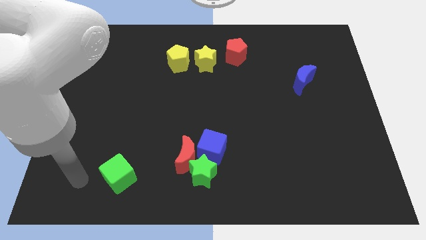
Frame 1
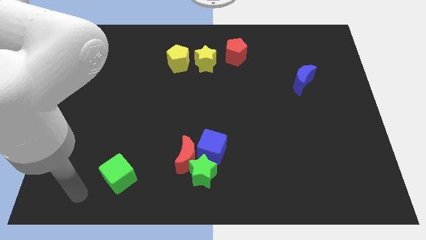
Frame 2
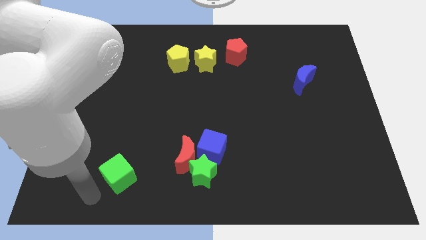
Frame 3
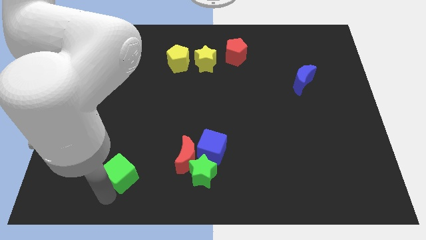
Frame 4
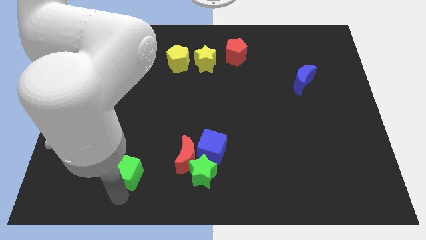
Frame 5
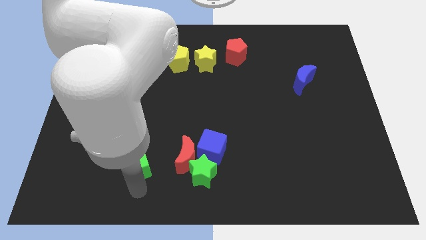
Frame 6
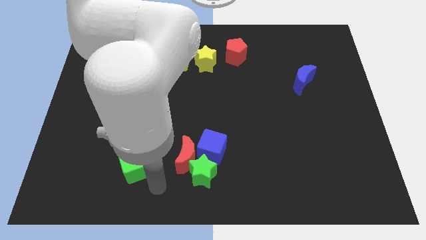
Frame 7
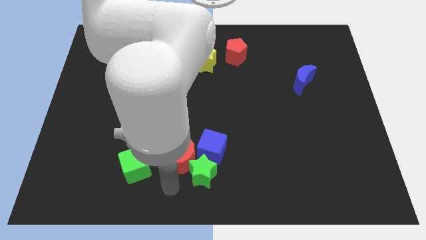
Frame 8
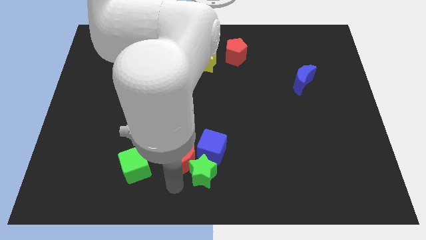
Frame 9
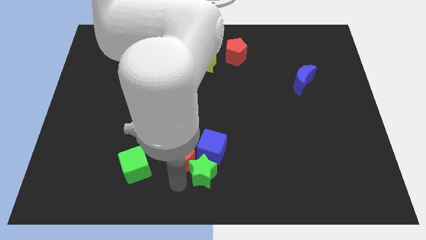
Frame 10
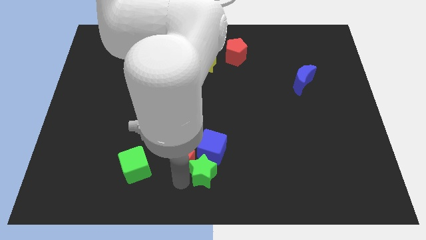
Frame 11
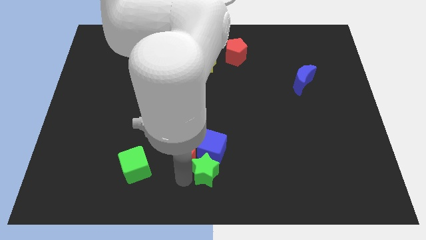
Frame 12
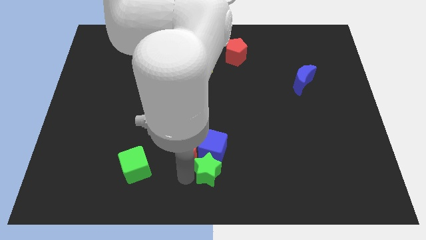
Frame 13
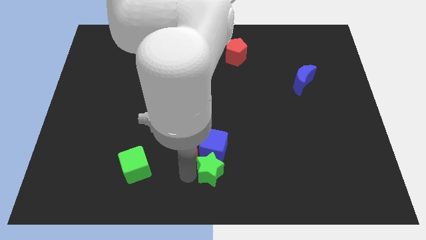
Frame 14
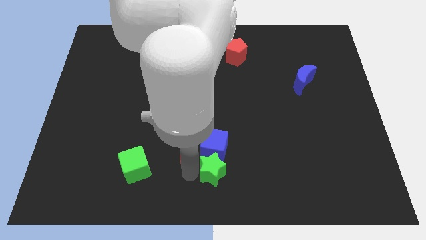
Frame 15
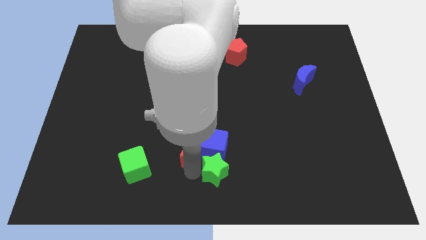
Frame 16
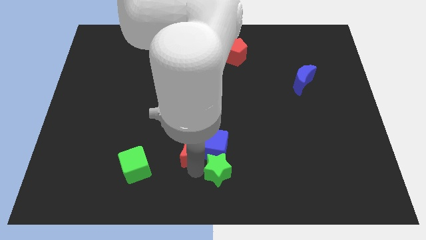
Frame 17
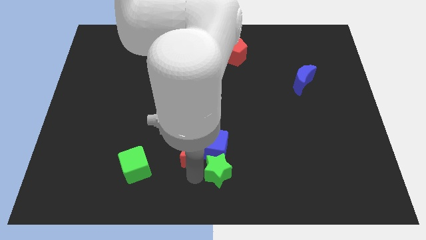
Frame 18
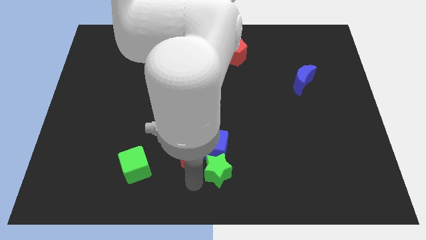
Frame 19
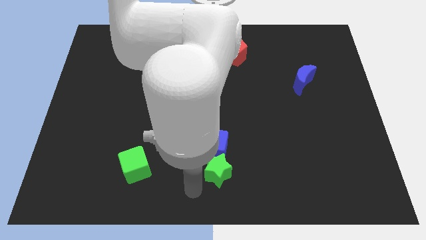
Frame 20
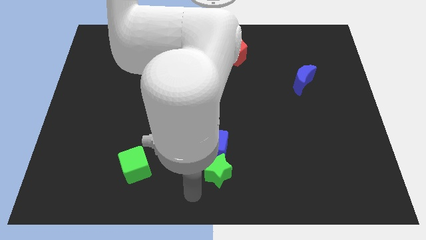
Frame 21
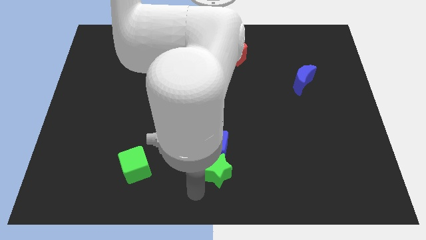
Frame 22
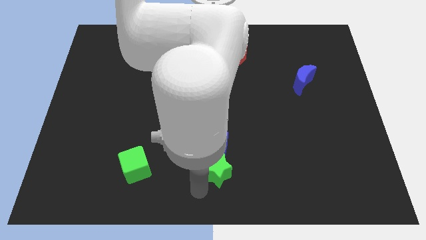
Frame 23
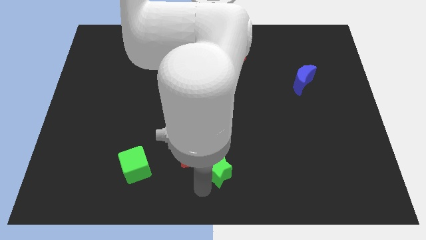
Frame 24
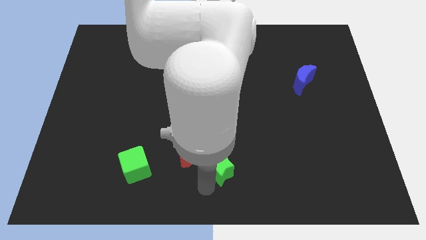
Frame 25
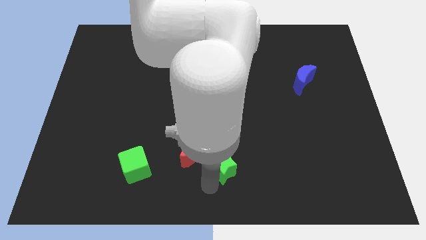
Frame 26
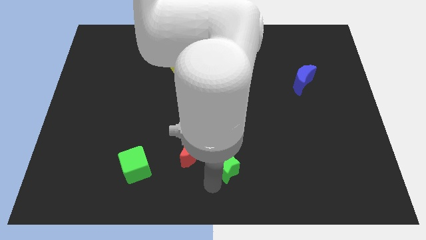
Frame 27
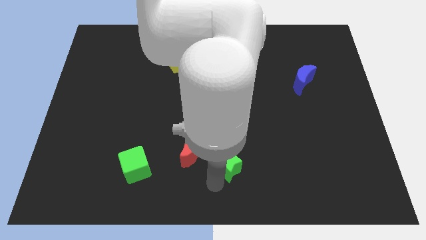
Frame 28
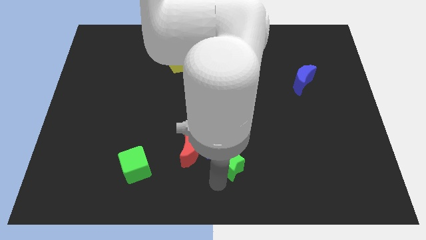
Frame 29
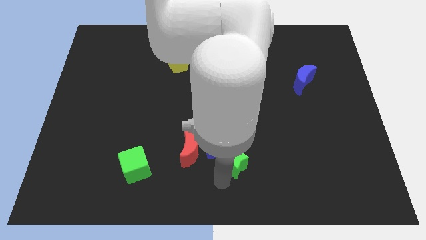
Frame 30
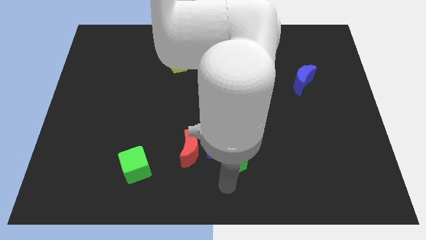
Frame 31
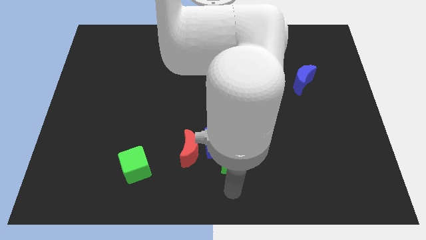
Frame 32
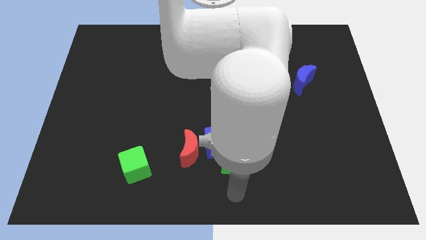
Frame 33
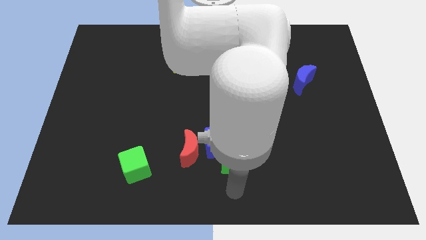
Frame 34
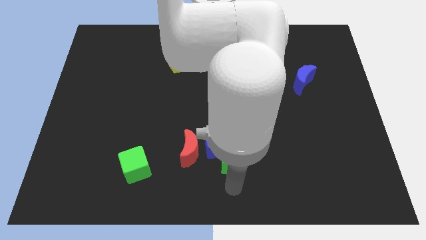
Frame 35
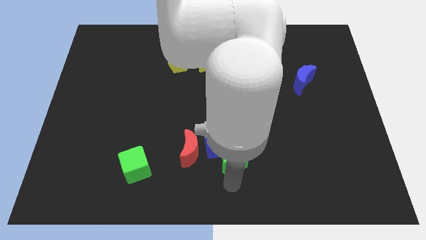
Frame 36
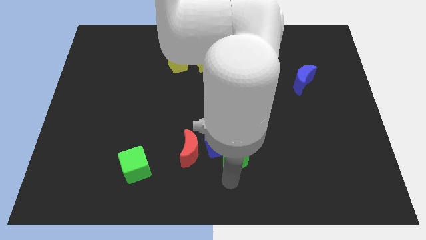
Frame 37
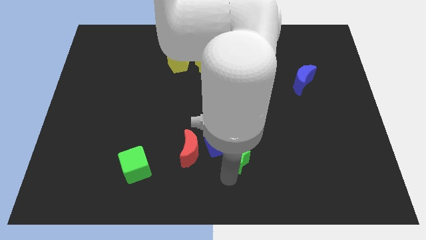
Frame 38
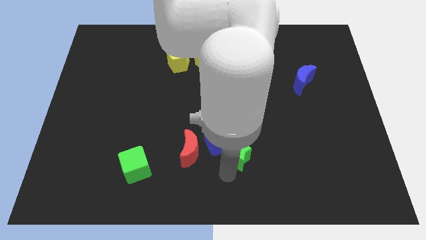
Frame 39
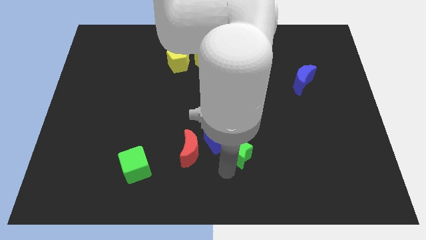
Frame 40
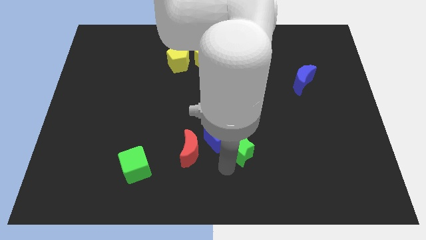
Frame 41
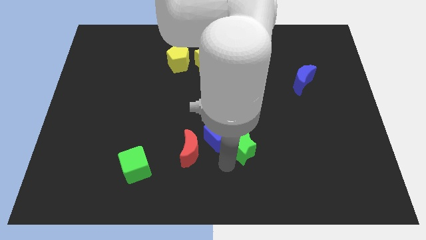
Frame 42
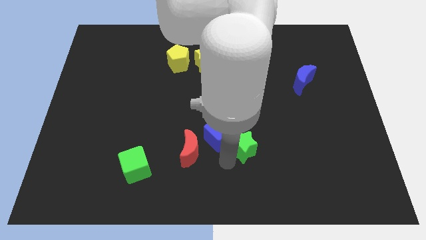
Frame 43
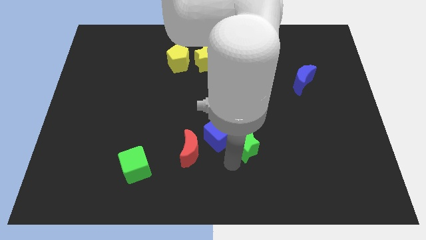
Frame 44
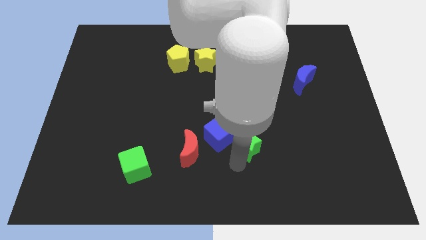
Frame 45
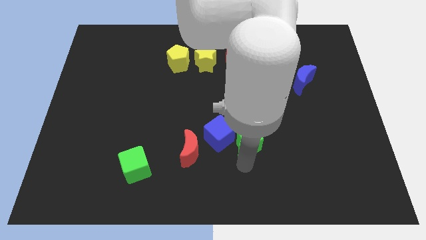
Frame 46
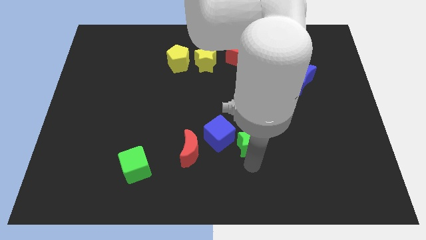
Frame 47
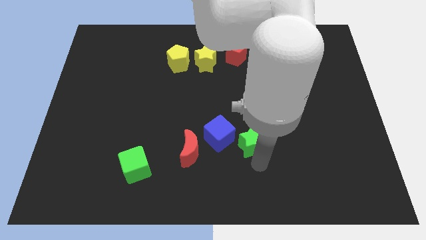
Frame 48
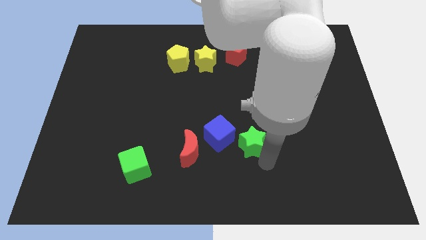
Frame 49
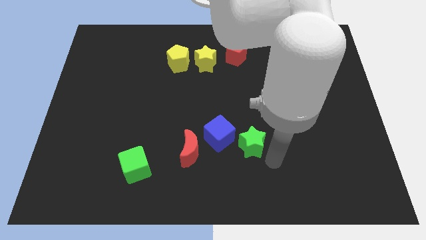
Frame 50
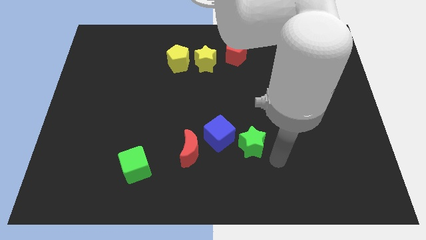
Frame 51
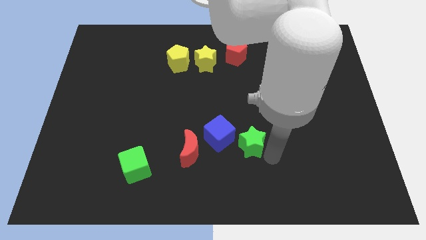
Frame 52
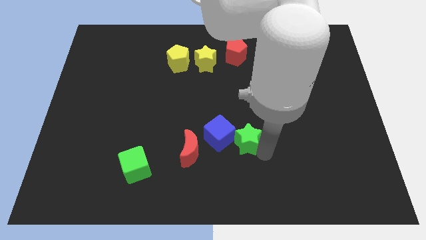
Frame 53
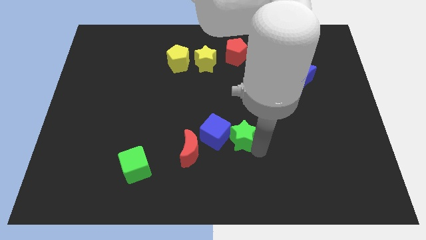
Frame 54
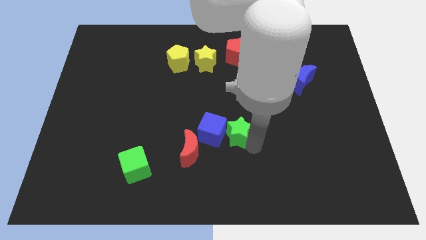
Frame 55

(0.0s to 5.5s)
push the green star upwards somewhat

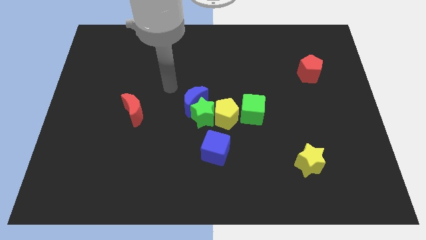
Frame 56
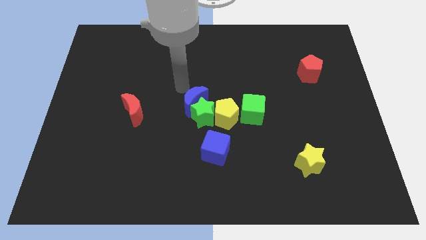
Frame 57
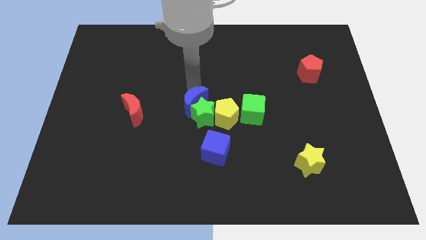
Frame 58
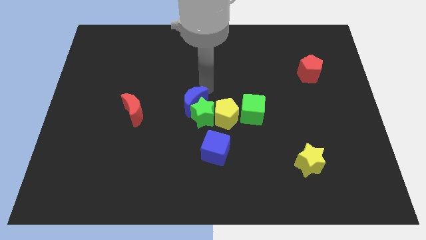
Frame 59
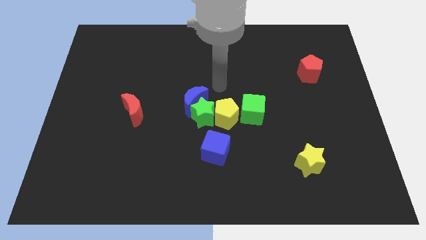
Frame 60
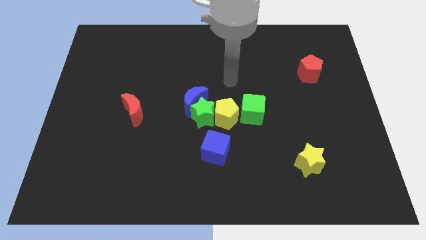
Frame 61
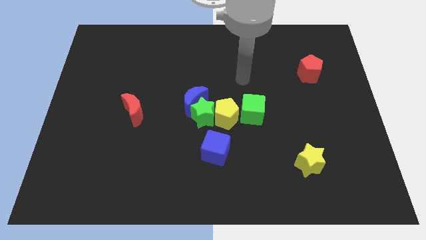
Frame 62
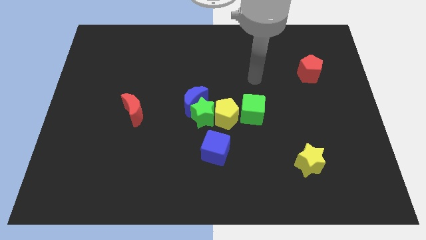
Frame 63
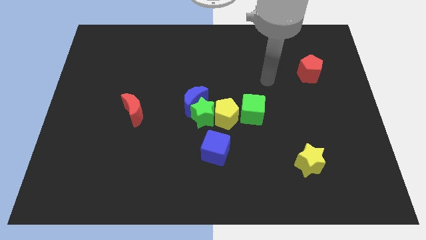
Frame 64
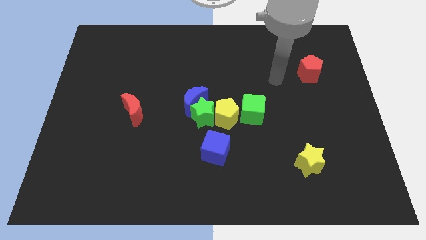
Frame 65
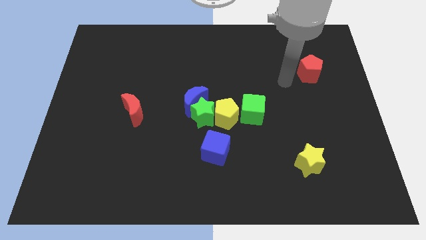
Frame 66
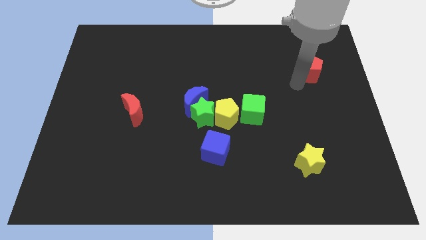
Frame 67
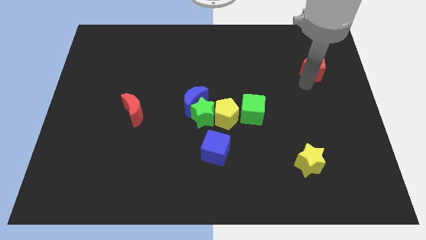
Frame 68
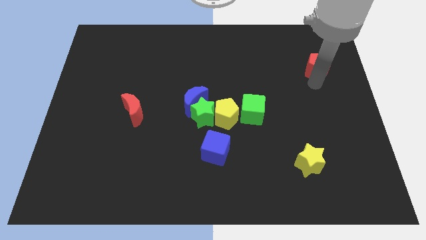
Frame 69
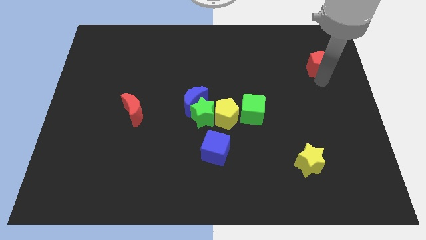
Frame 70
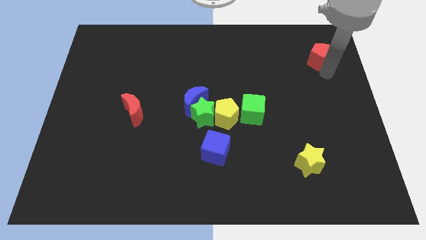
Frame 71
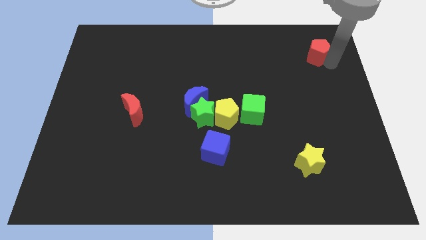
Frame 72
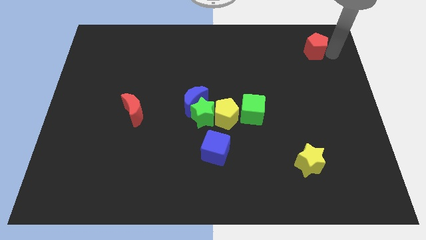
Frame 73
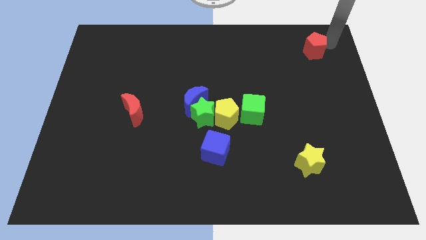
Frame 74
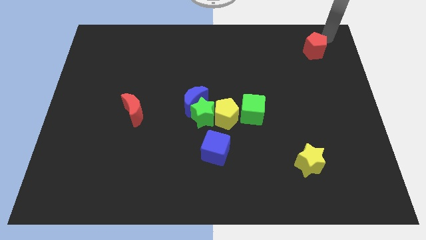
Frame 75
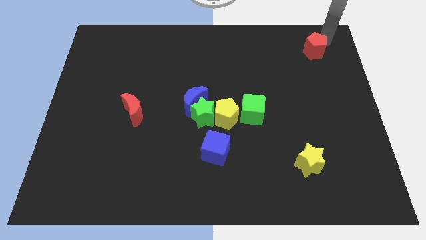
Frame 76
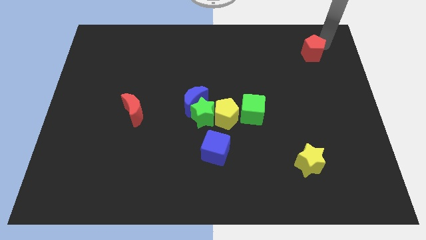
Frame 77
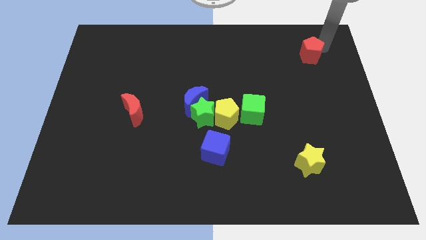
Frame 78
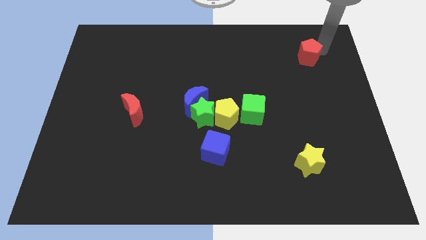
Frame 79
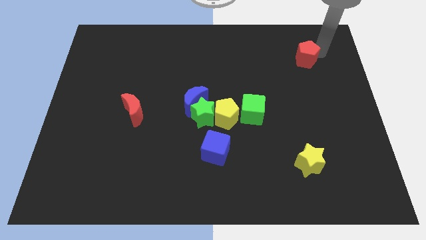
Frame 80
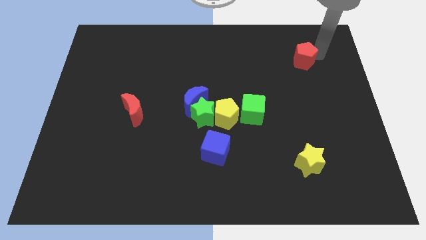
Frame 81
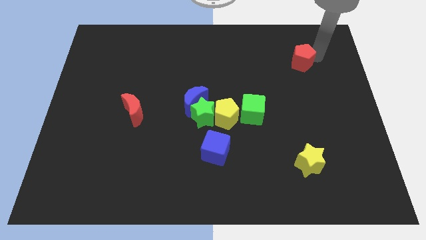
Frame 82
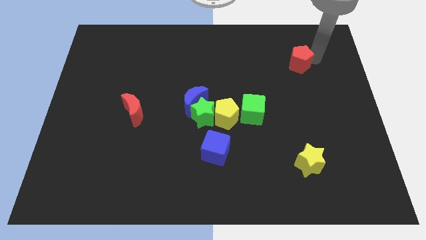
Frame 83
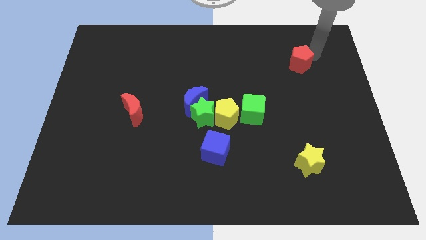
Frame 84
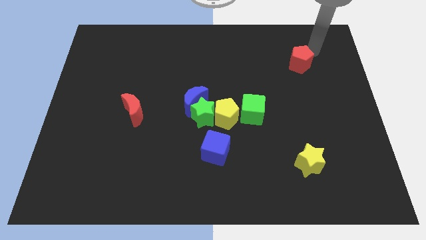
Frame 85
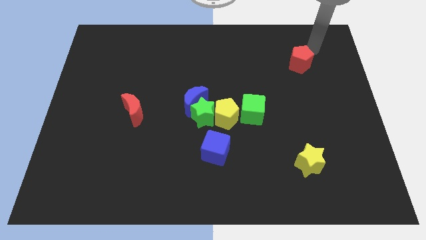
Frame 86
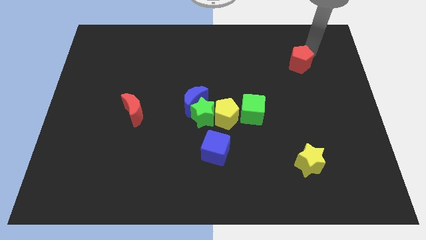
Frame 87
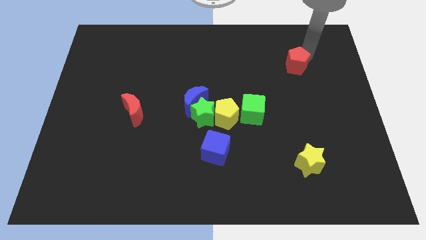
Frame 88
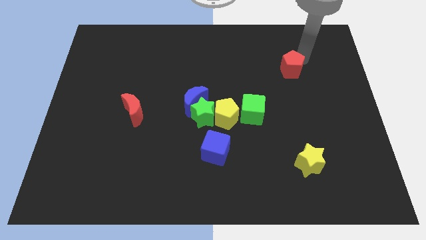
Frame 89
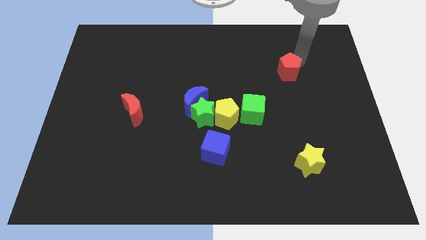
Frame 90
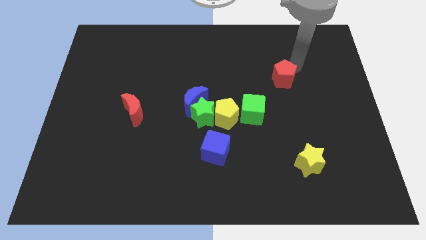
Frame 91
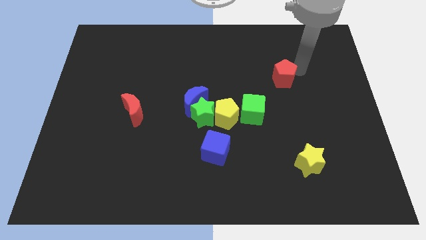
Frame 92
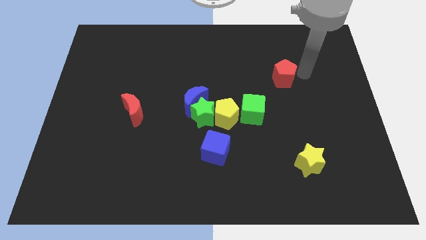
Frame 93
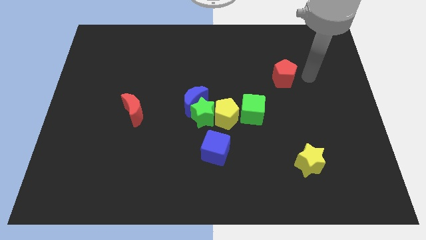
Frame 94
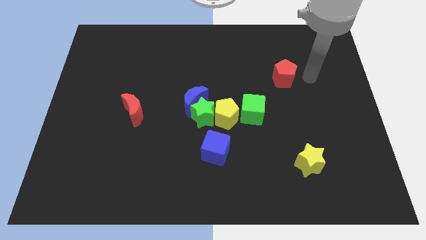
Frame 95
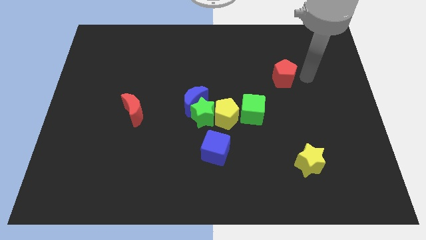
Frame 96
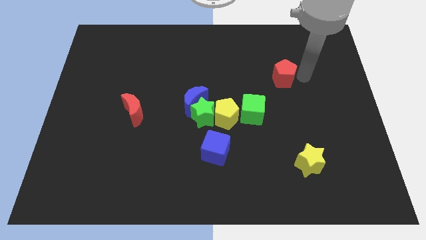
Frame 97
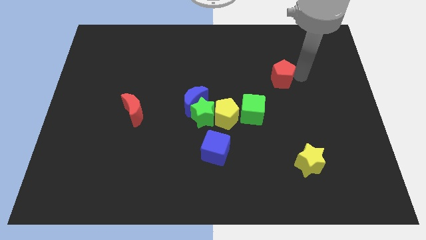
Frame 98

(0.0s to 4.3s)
slide the red pentagon left a little bit
